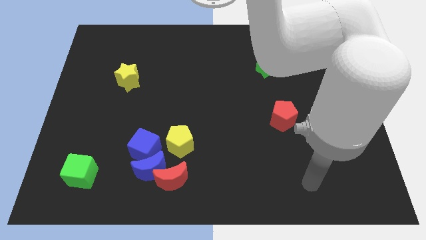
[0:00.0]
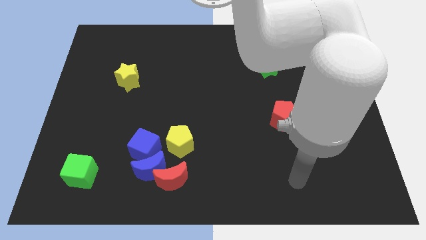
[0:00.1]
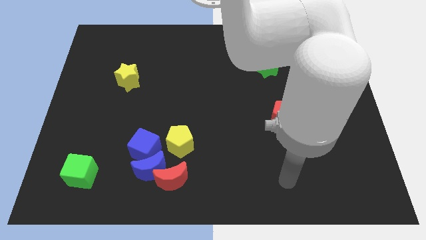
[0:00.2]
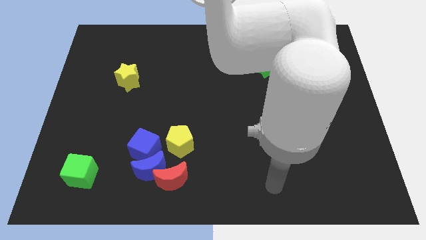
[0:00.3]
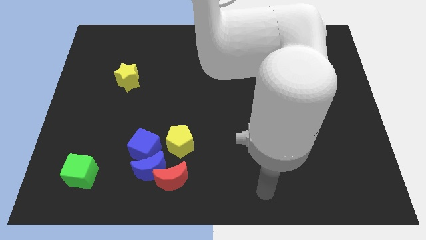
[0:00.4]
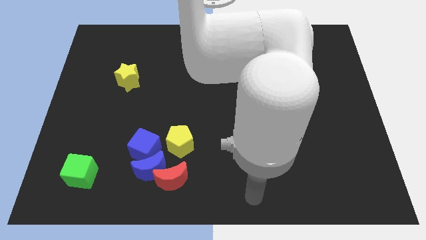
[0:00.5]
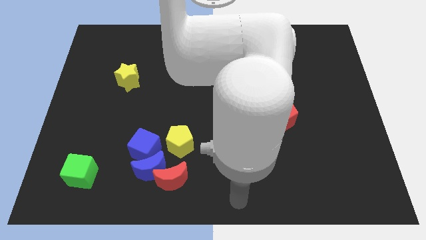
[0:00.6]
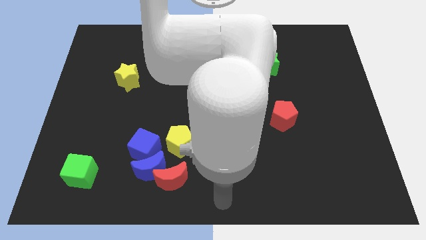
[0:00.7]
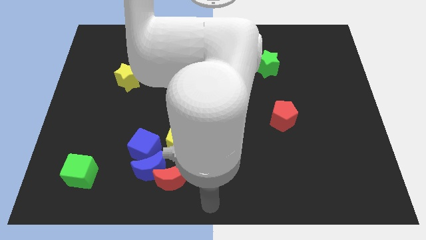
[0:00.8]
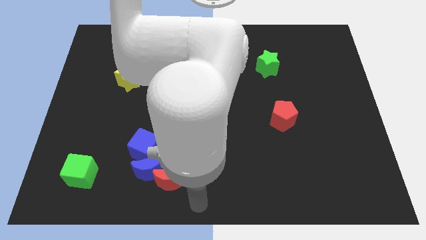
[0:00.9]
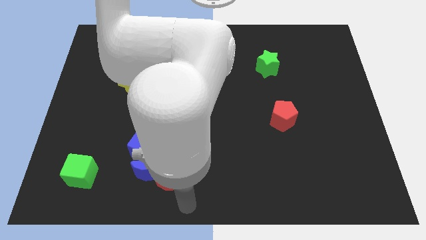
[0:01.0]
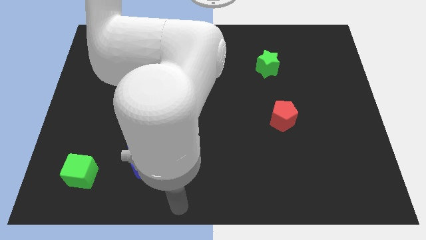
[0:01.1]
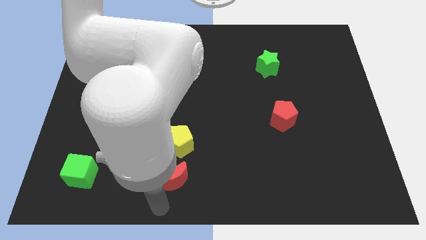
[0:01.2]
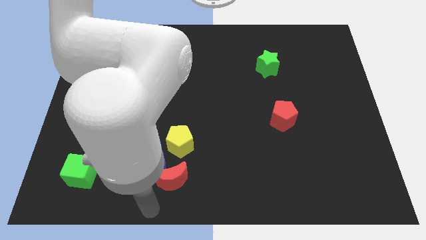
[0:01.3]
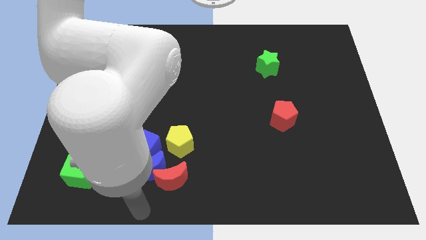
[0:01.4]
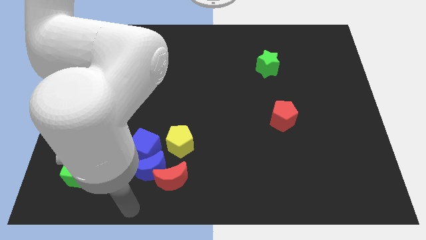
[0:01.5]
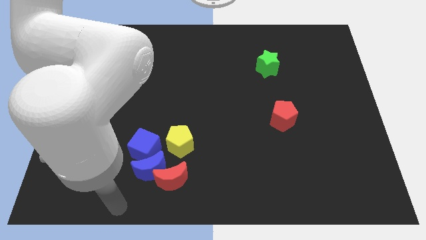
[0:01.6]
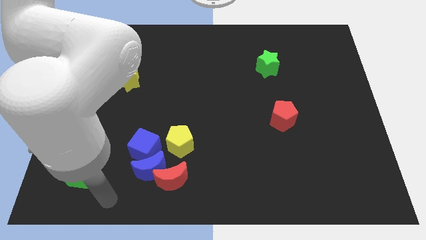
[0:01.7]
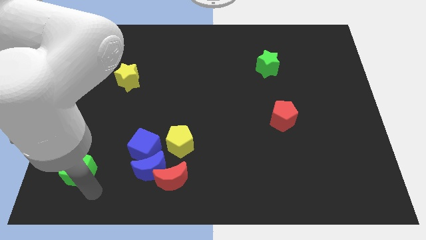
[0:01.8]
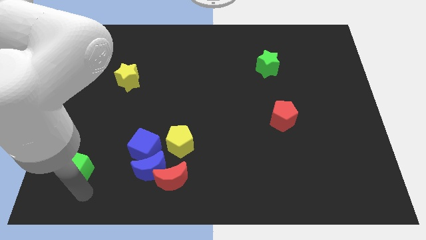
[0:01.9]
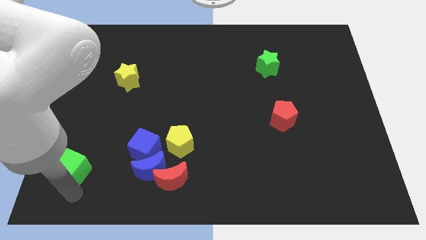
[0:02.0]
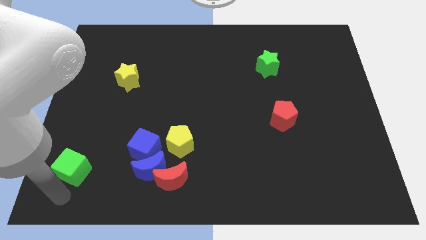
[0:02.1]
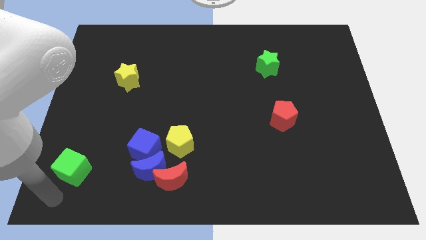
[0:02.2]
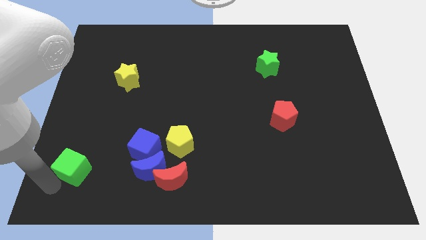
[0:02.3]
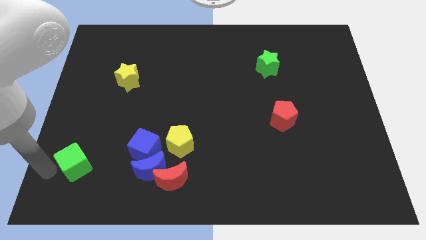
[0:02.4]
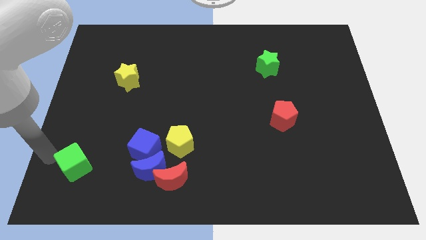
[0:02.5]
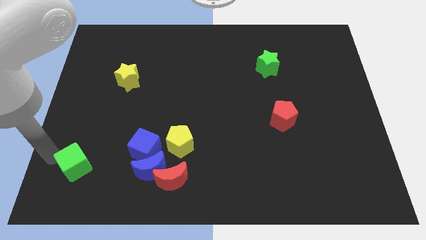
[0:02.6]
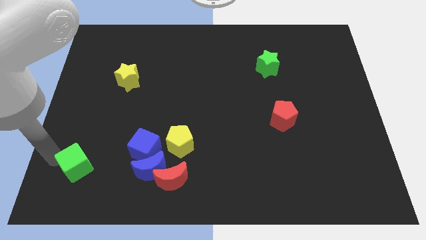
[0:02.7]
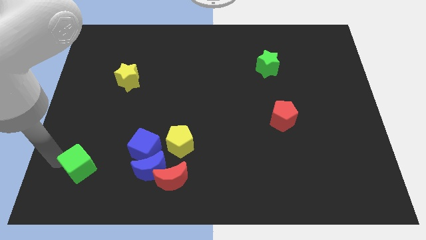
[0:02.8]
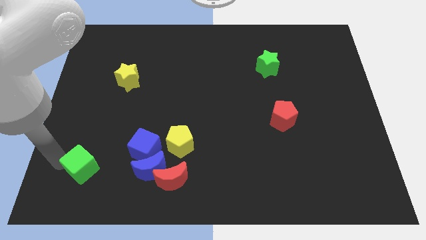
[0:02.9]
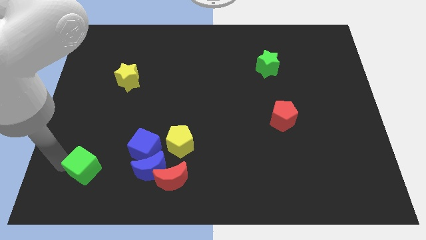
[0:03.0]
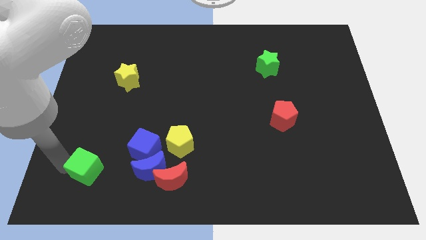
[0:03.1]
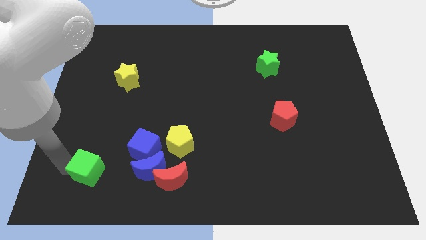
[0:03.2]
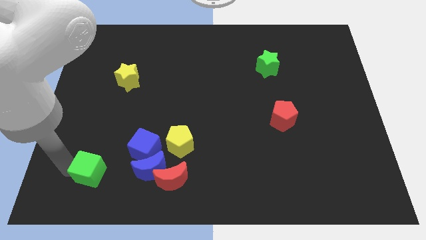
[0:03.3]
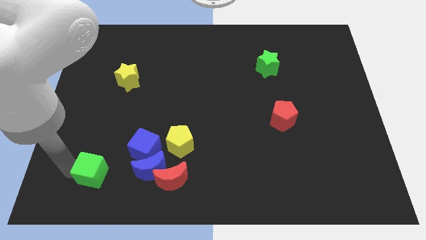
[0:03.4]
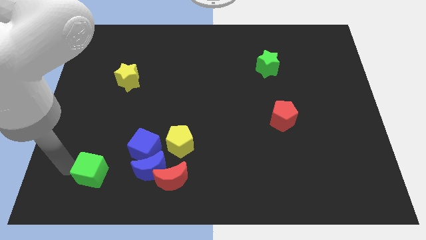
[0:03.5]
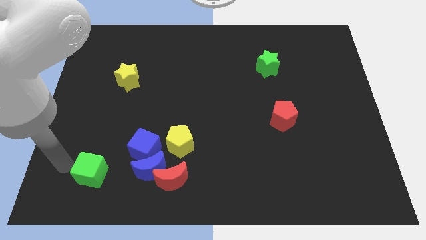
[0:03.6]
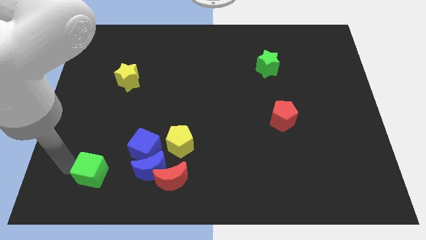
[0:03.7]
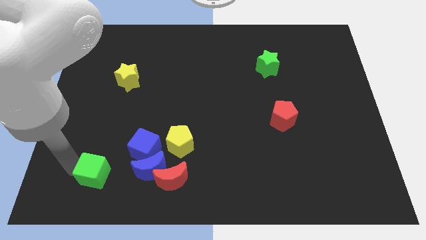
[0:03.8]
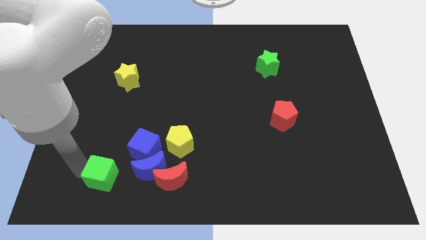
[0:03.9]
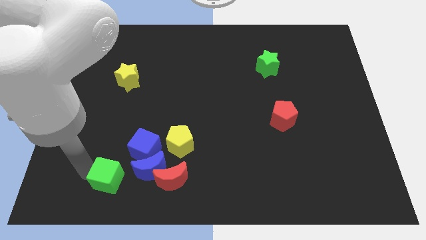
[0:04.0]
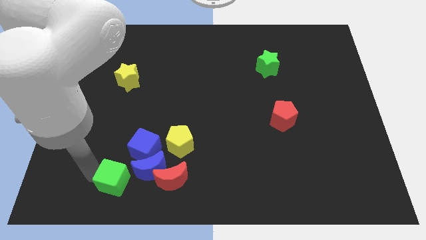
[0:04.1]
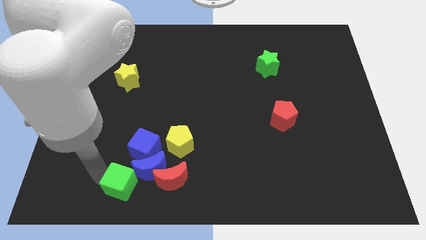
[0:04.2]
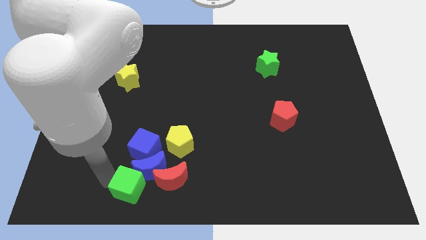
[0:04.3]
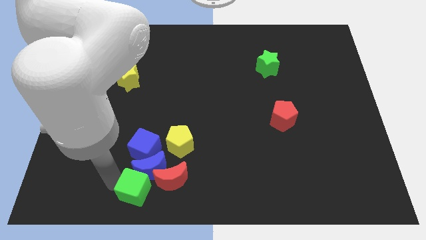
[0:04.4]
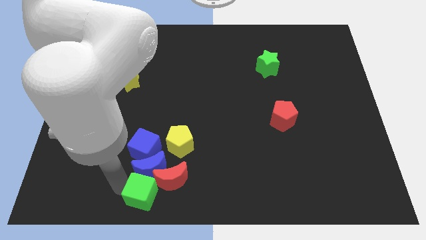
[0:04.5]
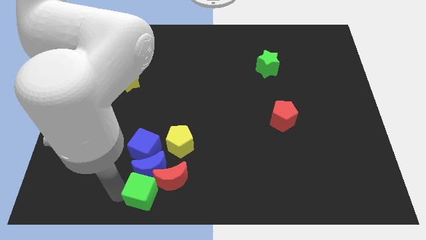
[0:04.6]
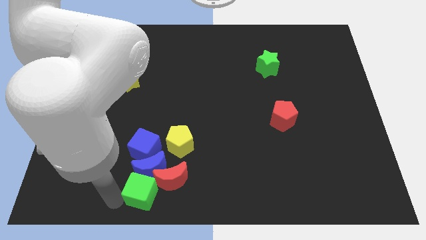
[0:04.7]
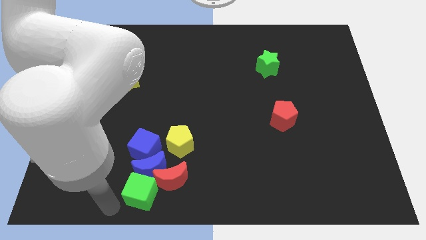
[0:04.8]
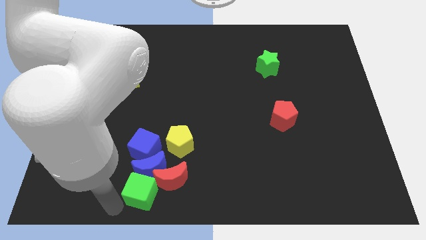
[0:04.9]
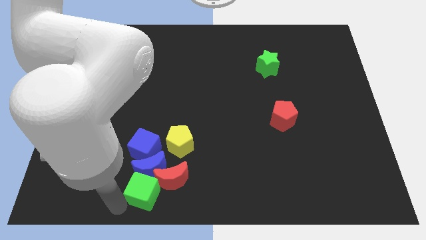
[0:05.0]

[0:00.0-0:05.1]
push the green cube to the red moon

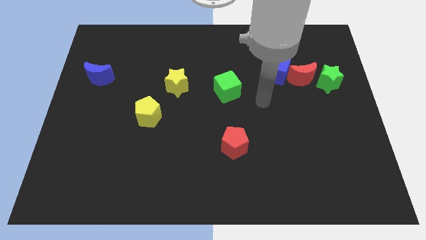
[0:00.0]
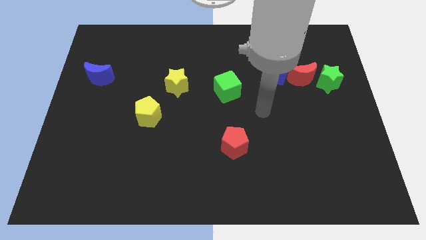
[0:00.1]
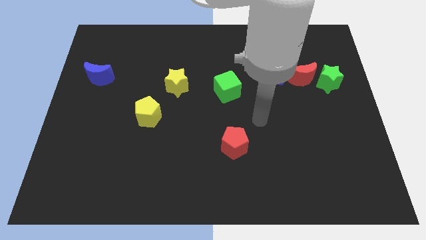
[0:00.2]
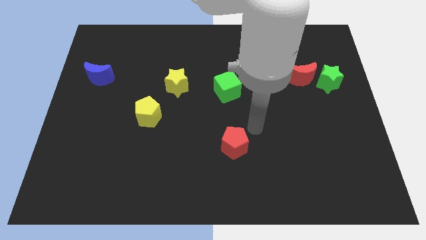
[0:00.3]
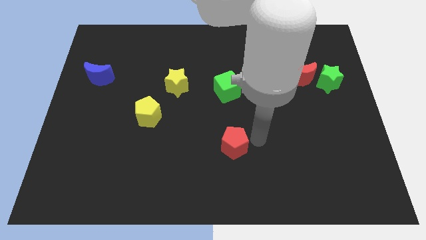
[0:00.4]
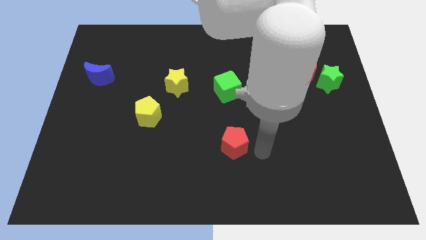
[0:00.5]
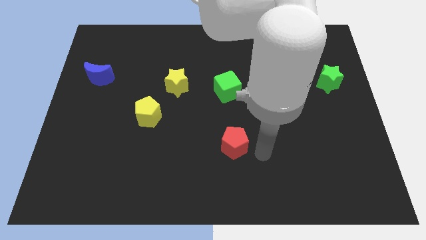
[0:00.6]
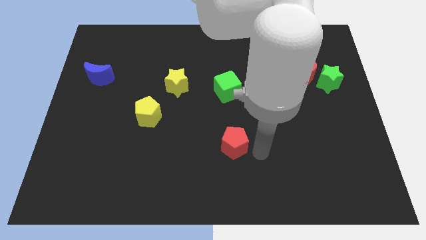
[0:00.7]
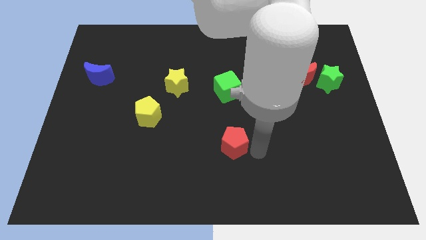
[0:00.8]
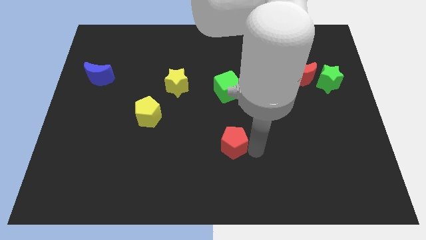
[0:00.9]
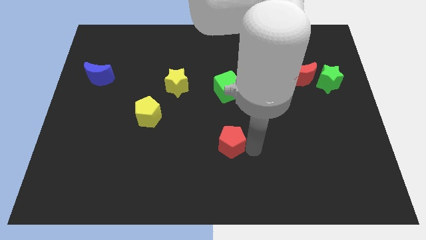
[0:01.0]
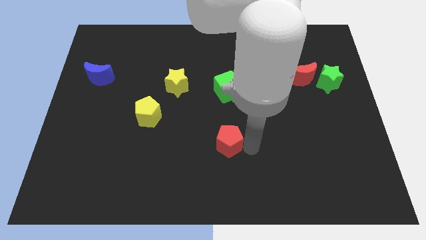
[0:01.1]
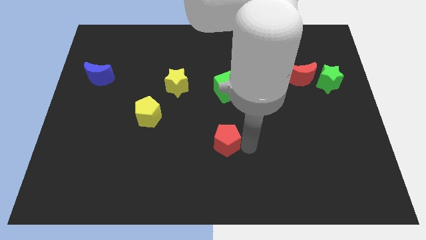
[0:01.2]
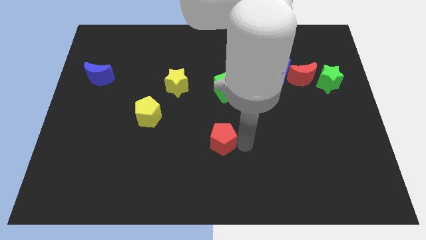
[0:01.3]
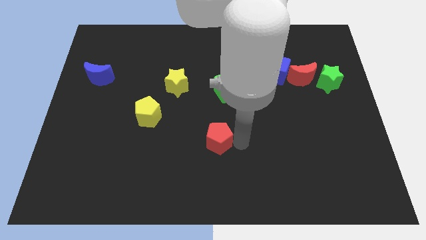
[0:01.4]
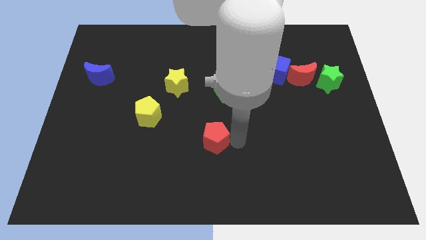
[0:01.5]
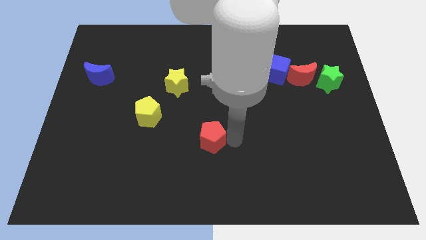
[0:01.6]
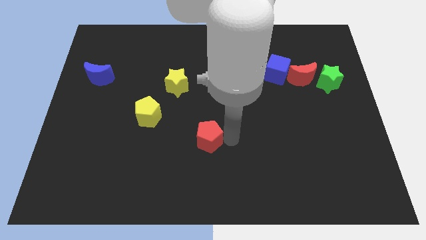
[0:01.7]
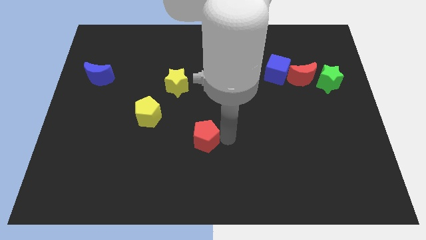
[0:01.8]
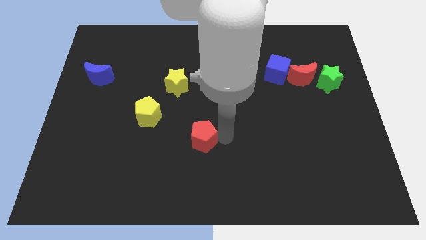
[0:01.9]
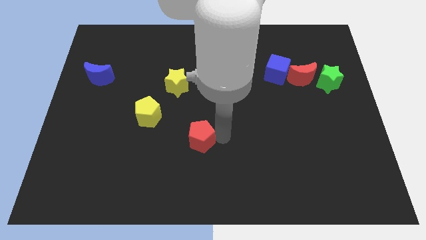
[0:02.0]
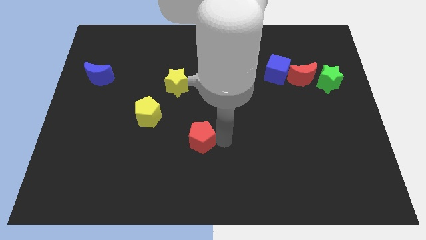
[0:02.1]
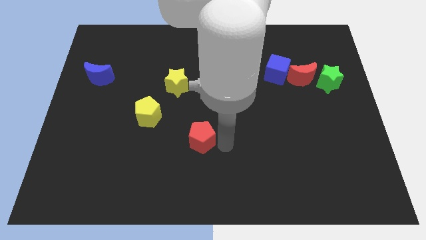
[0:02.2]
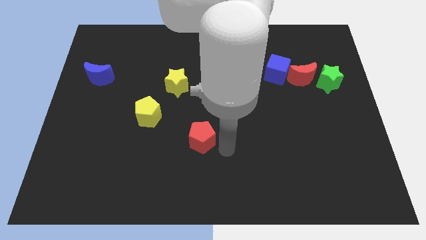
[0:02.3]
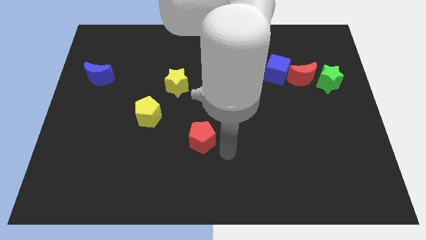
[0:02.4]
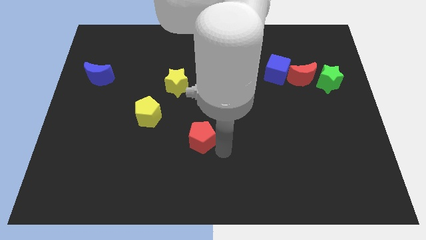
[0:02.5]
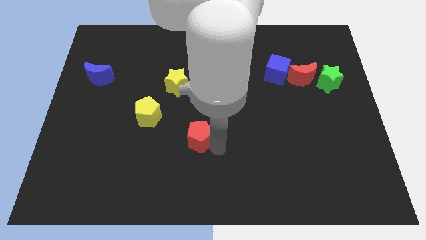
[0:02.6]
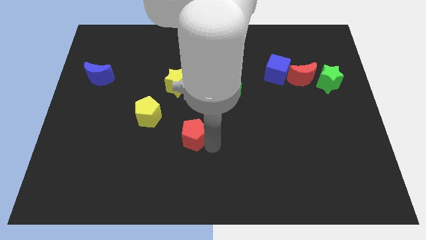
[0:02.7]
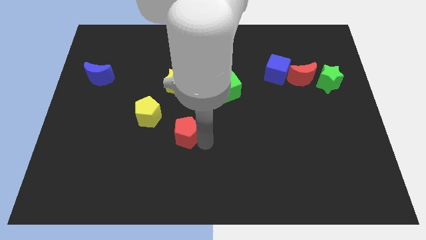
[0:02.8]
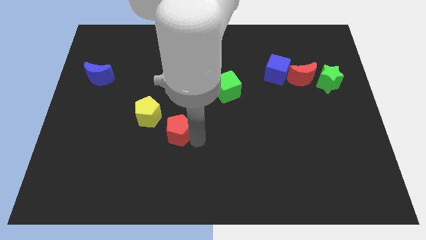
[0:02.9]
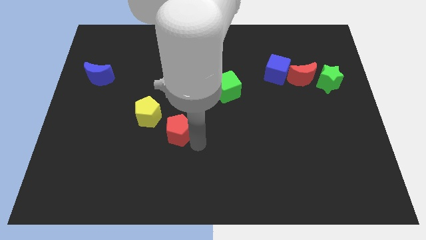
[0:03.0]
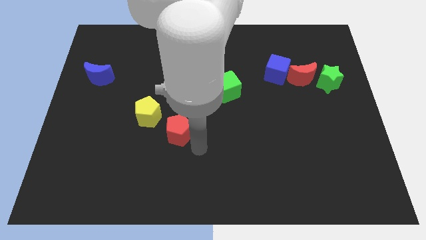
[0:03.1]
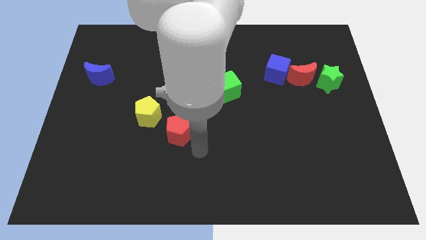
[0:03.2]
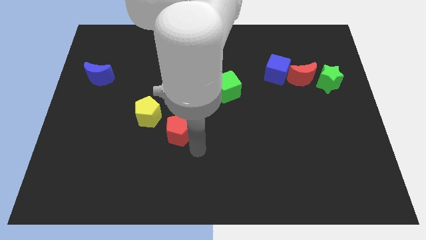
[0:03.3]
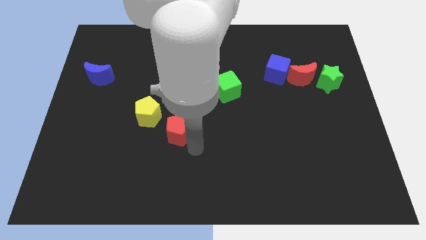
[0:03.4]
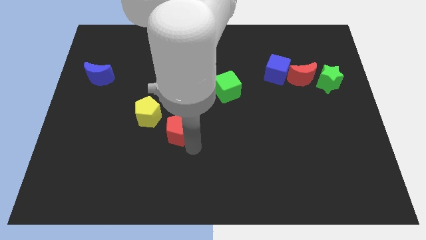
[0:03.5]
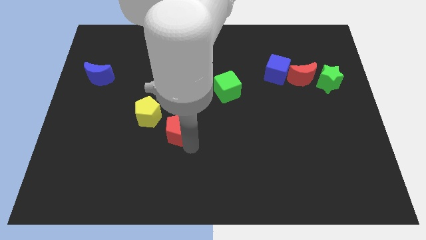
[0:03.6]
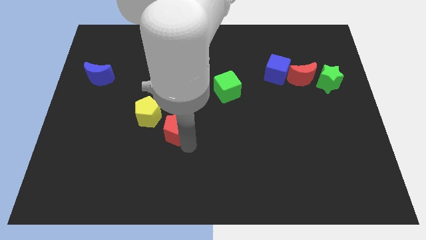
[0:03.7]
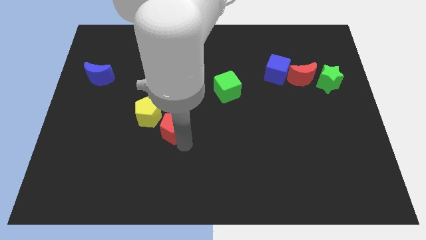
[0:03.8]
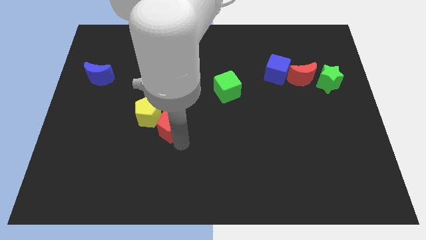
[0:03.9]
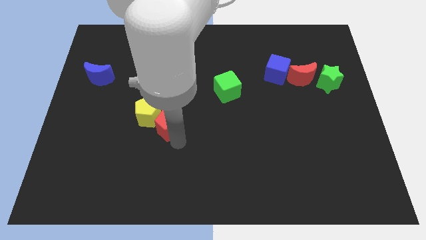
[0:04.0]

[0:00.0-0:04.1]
push the red pentagon towards the yellow pentagon
